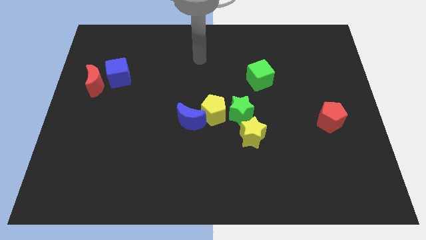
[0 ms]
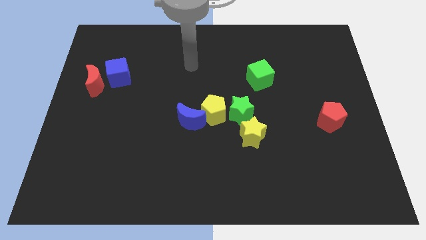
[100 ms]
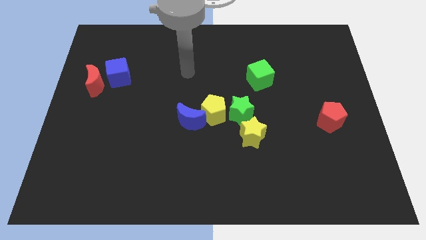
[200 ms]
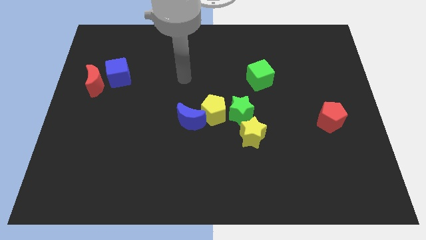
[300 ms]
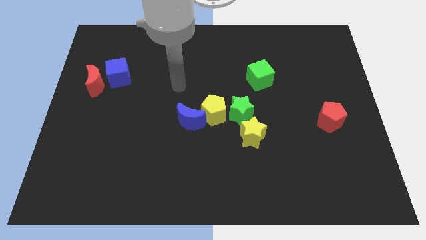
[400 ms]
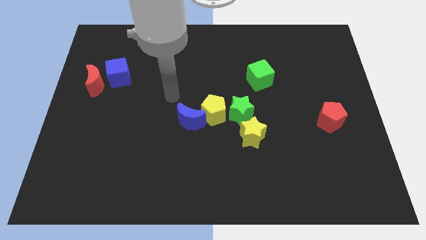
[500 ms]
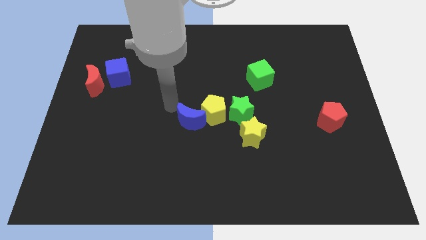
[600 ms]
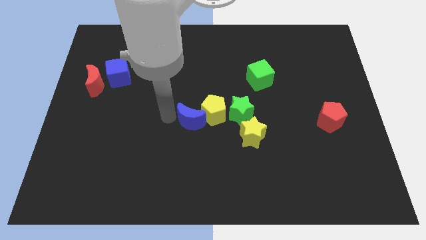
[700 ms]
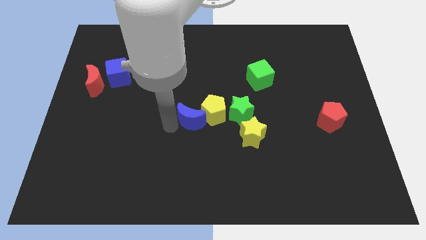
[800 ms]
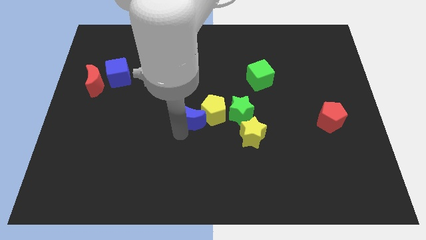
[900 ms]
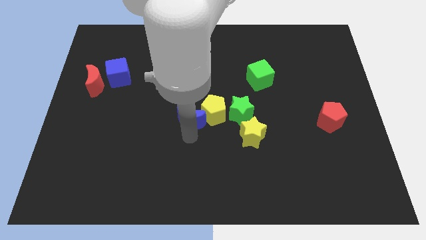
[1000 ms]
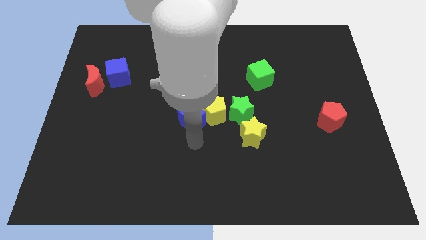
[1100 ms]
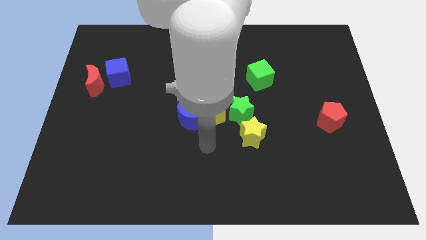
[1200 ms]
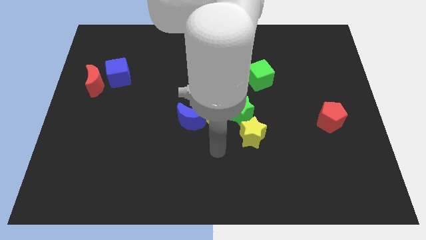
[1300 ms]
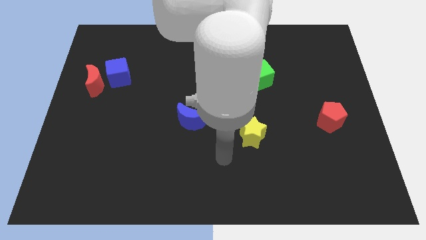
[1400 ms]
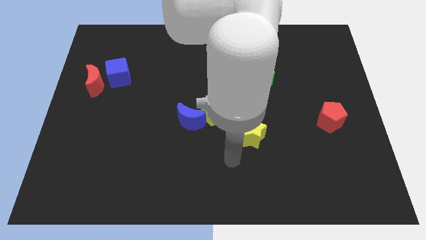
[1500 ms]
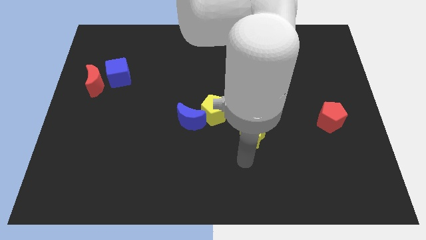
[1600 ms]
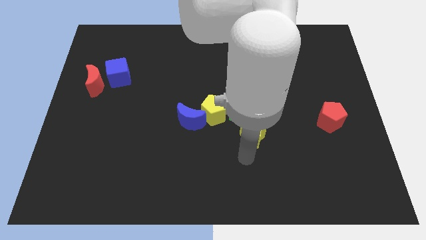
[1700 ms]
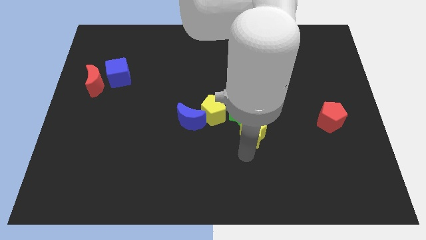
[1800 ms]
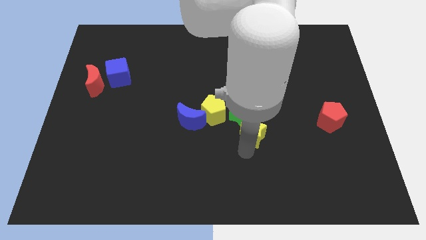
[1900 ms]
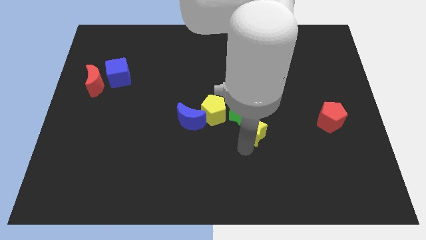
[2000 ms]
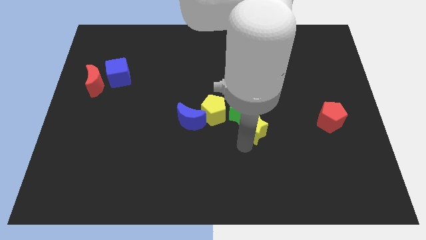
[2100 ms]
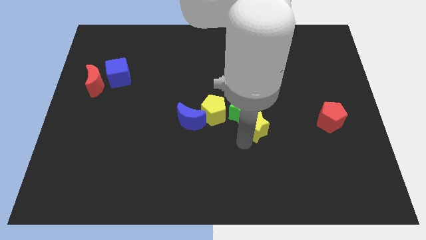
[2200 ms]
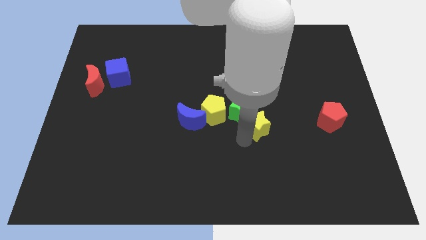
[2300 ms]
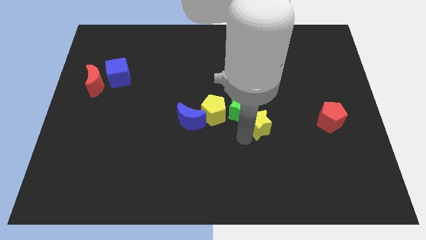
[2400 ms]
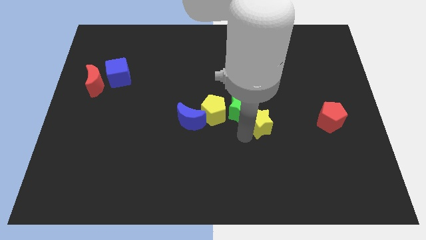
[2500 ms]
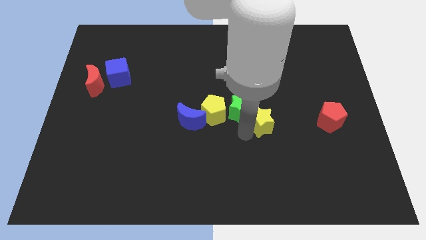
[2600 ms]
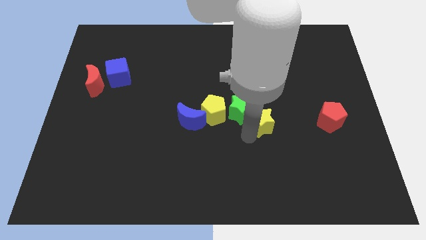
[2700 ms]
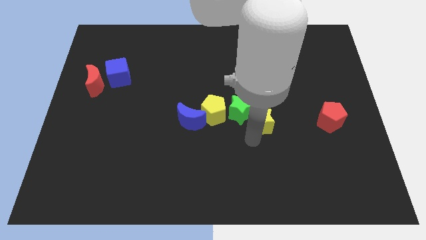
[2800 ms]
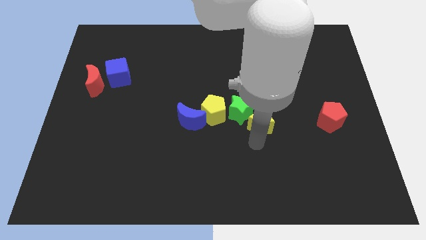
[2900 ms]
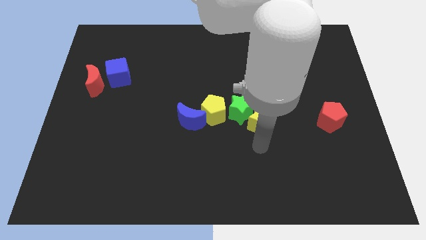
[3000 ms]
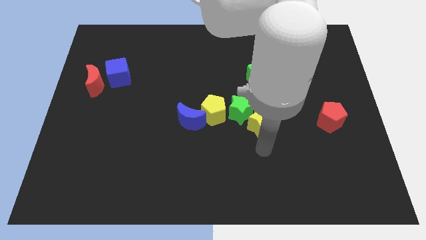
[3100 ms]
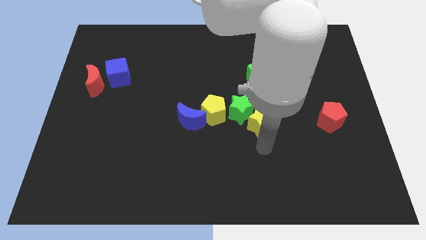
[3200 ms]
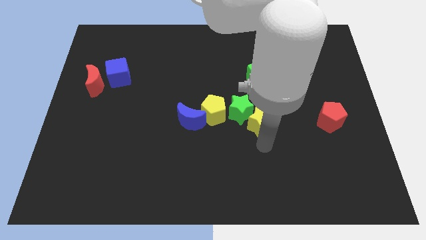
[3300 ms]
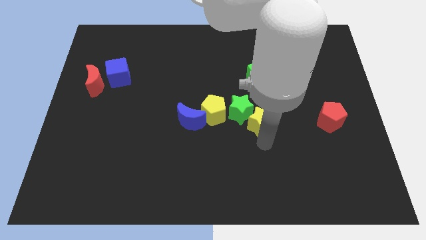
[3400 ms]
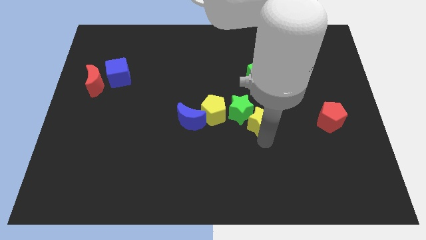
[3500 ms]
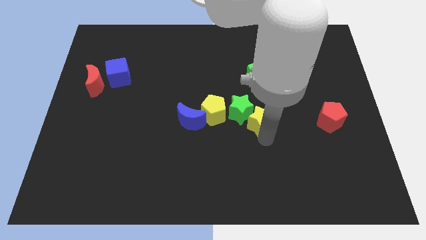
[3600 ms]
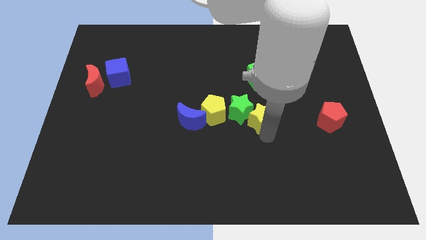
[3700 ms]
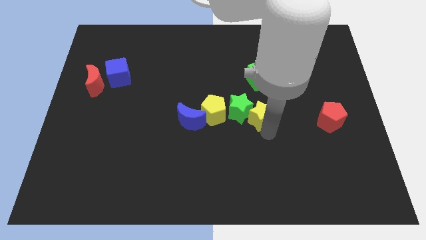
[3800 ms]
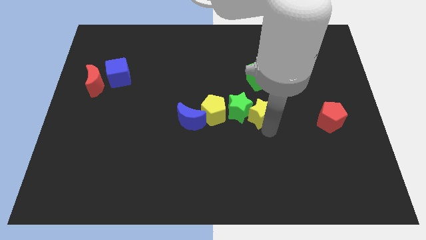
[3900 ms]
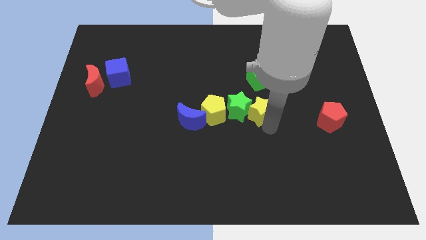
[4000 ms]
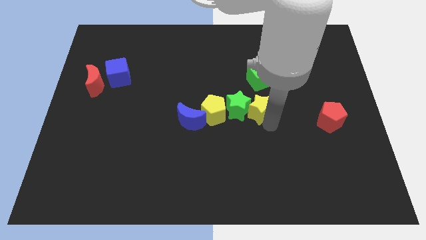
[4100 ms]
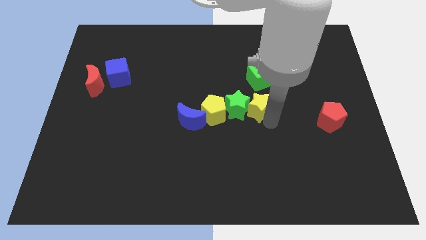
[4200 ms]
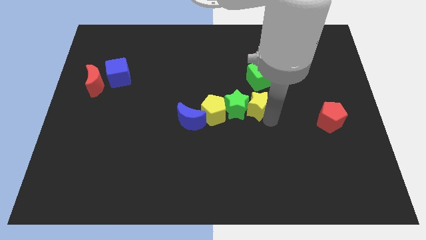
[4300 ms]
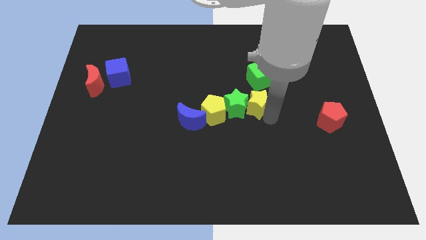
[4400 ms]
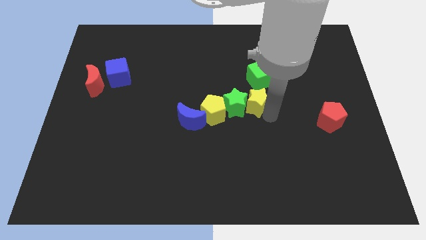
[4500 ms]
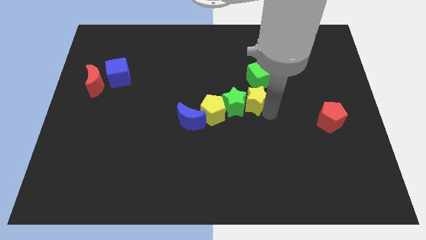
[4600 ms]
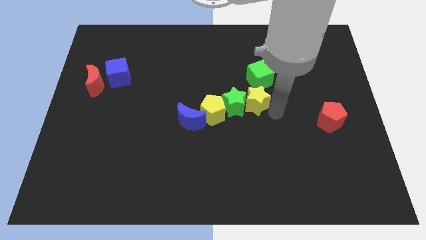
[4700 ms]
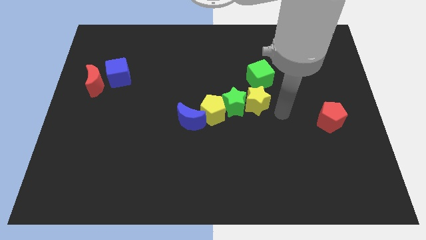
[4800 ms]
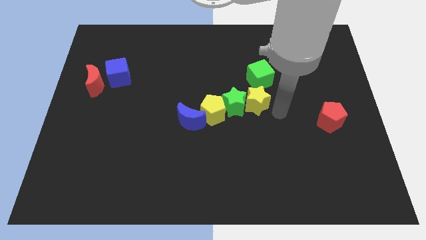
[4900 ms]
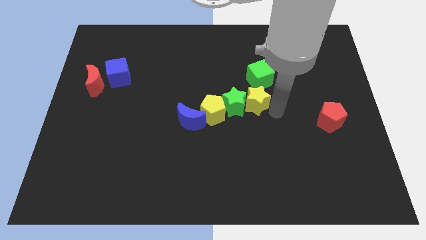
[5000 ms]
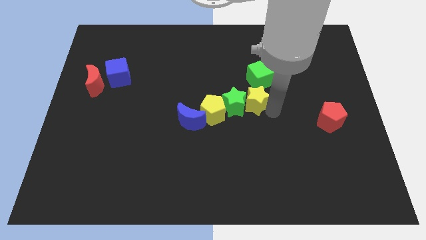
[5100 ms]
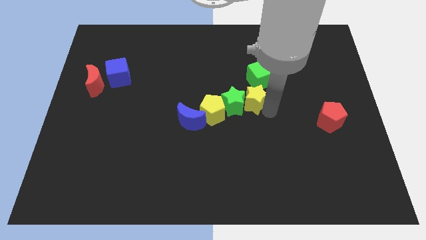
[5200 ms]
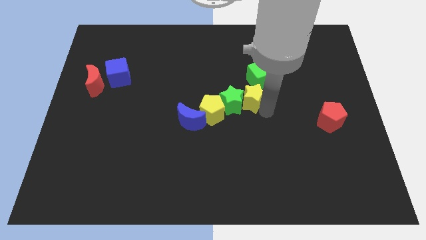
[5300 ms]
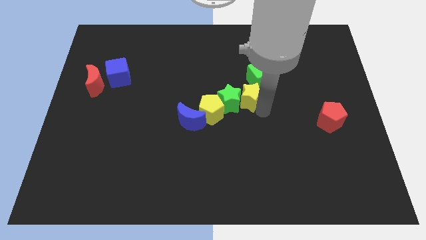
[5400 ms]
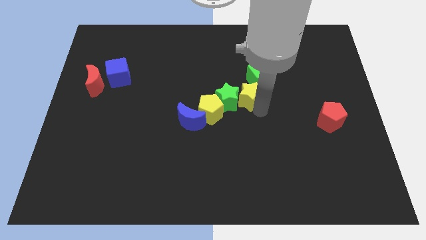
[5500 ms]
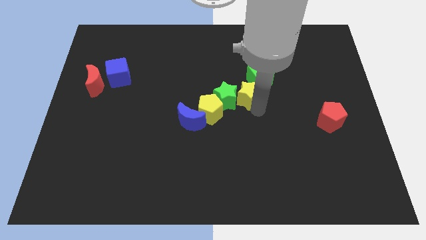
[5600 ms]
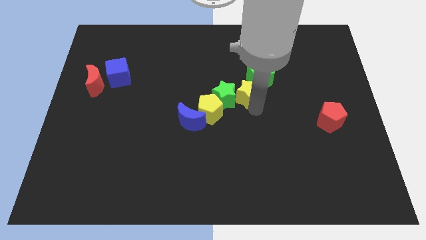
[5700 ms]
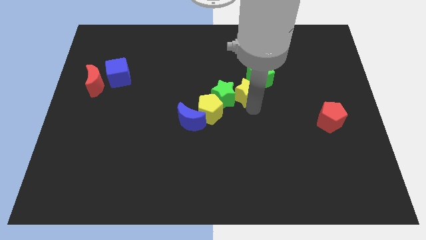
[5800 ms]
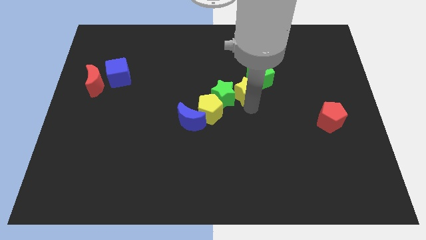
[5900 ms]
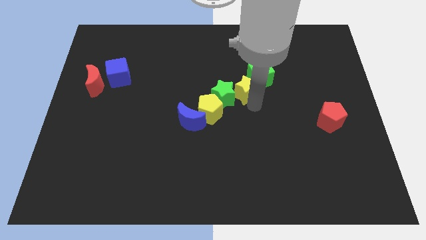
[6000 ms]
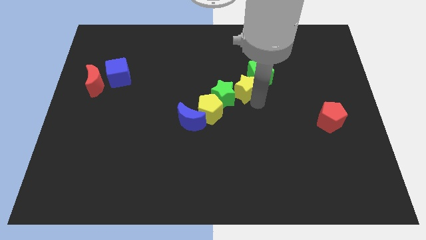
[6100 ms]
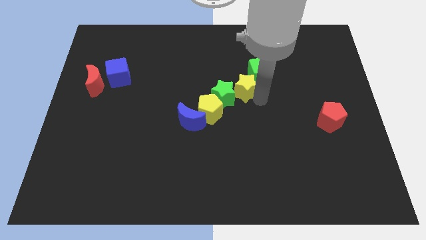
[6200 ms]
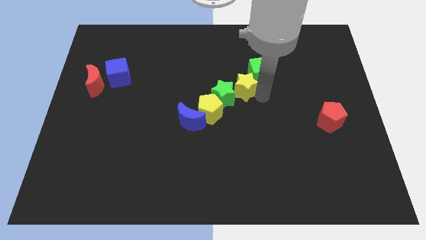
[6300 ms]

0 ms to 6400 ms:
slightly push the yellow star up and left diagonally

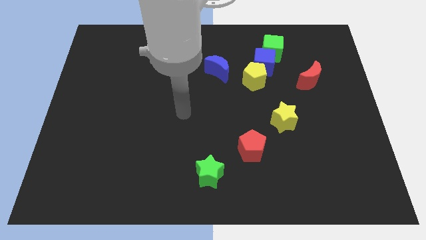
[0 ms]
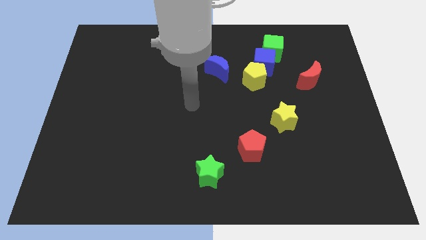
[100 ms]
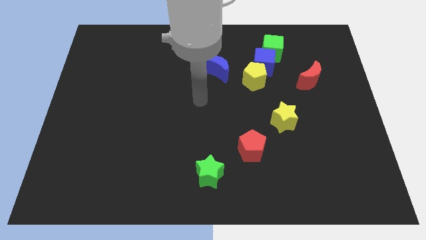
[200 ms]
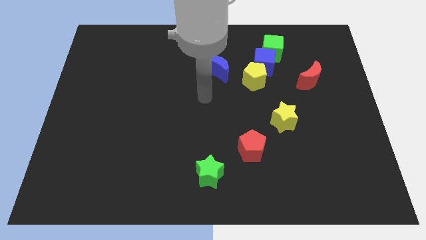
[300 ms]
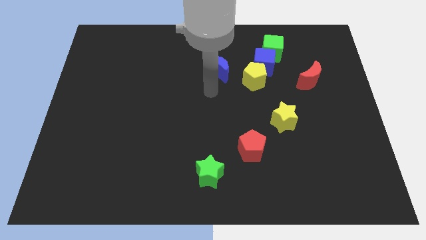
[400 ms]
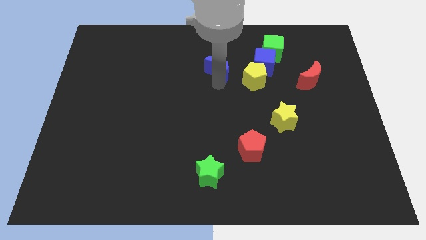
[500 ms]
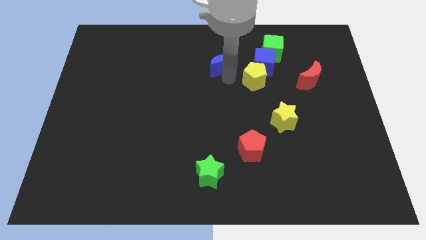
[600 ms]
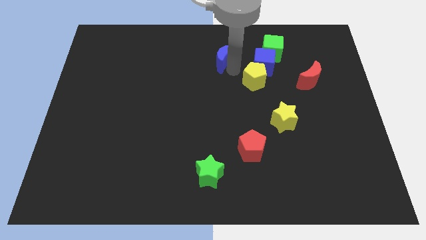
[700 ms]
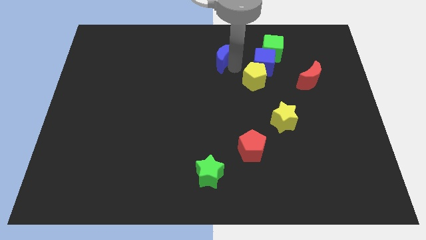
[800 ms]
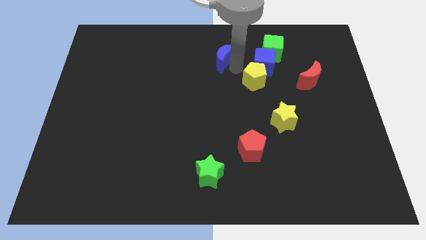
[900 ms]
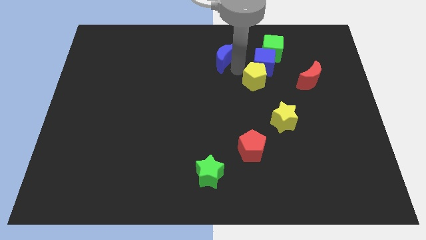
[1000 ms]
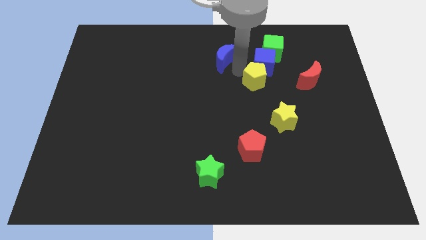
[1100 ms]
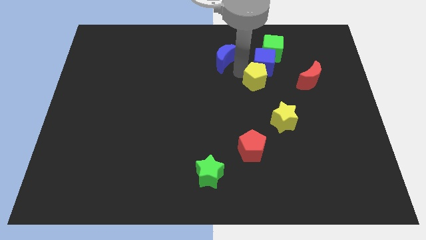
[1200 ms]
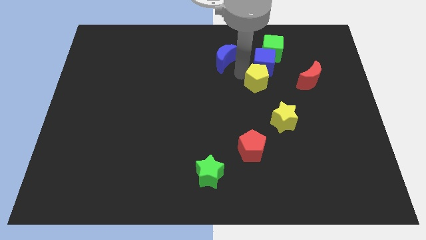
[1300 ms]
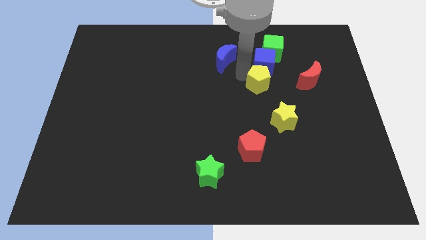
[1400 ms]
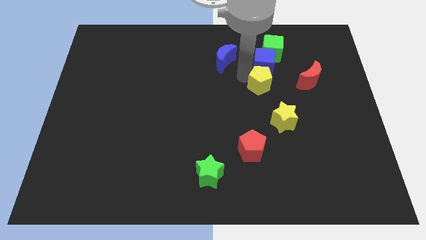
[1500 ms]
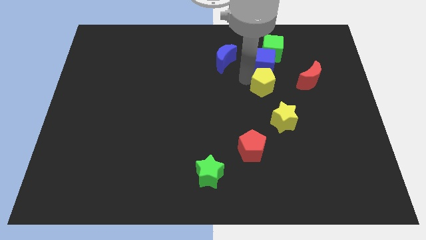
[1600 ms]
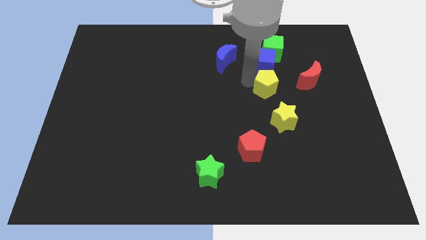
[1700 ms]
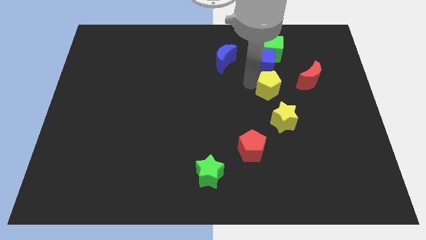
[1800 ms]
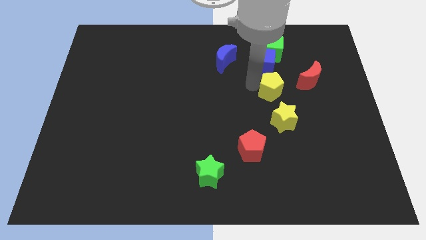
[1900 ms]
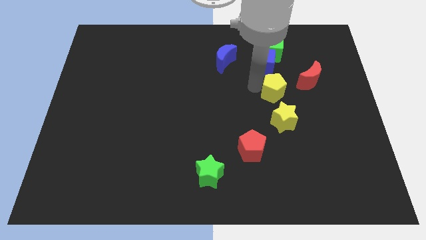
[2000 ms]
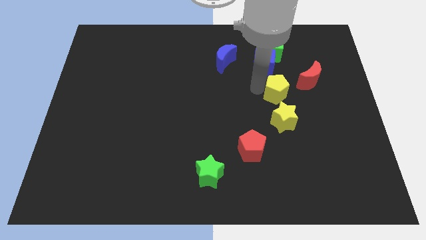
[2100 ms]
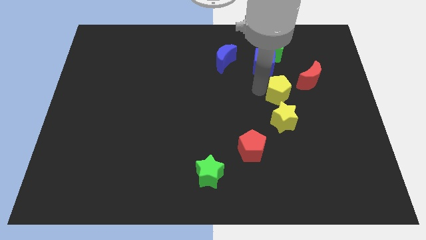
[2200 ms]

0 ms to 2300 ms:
slide the yellow pentagon slightly down and to the right diagonally
